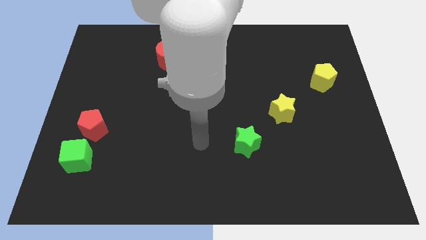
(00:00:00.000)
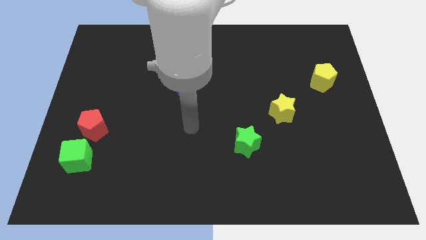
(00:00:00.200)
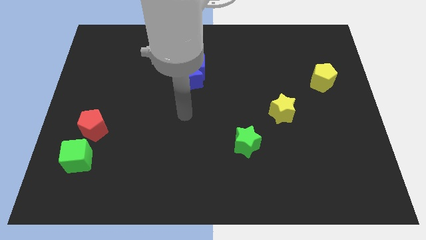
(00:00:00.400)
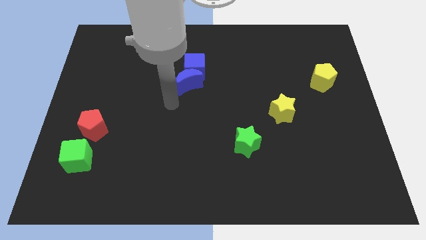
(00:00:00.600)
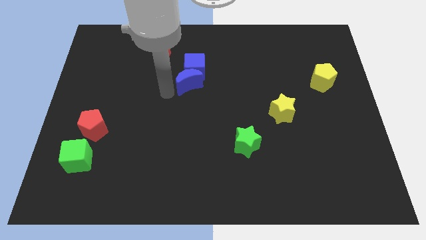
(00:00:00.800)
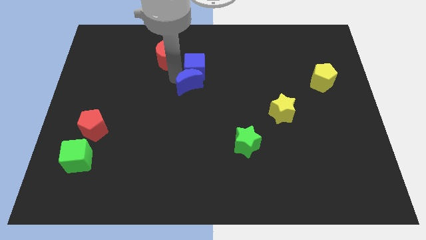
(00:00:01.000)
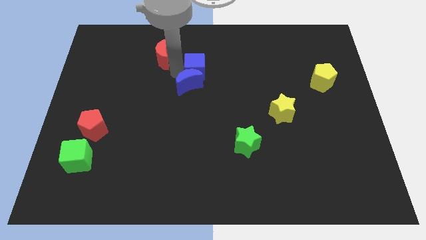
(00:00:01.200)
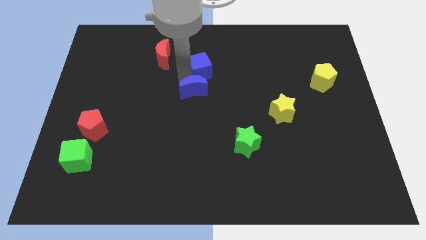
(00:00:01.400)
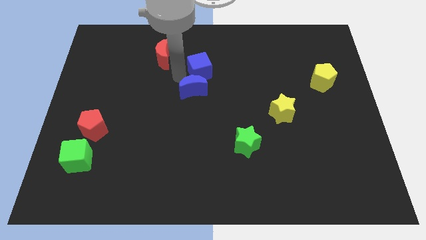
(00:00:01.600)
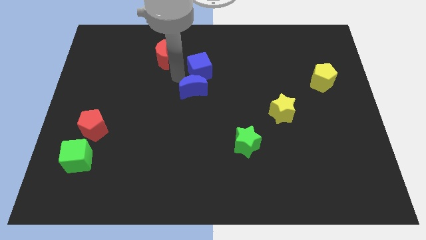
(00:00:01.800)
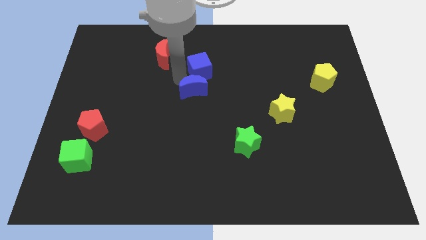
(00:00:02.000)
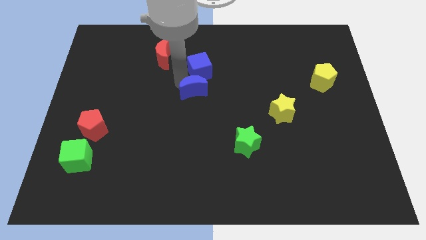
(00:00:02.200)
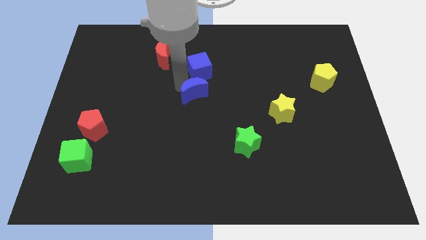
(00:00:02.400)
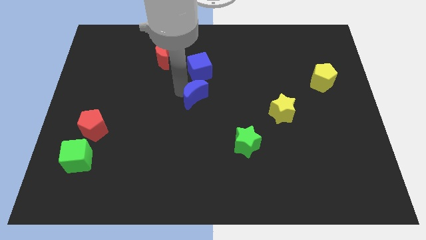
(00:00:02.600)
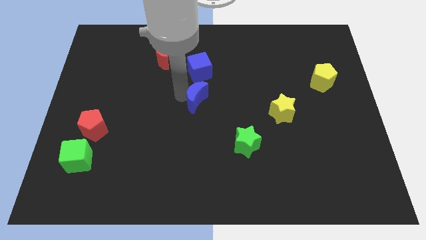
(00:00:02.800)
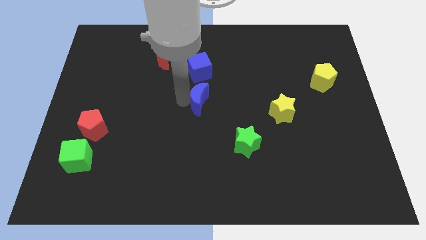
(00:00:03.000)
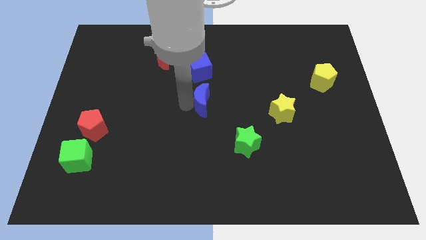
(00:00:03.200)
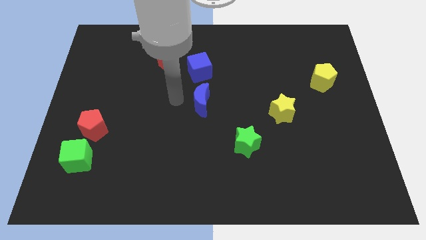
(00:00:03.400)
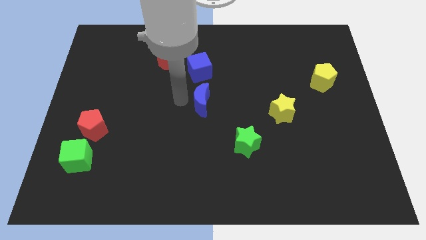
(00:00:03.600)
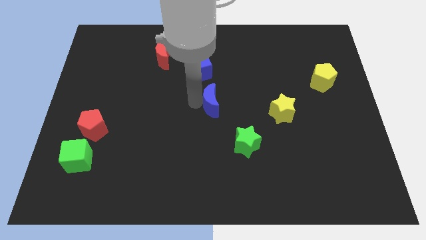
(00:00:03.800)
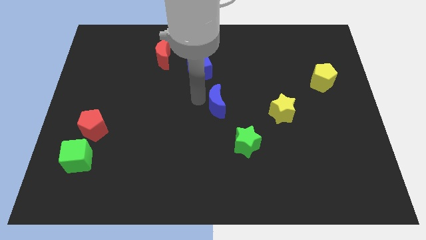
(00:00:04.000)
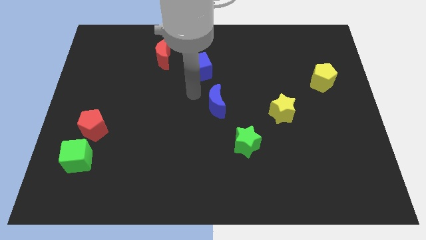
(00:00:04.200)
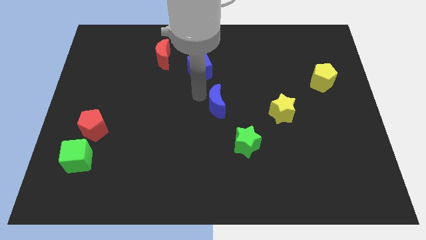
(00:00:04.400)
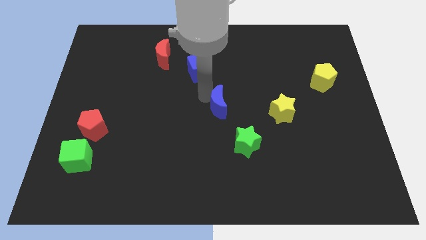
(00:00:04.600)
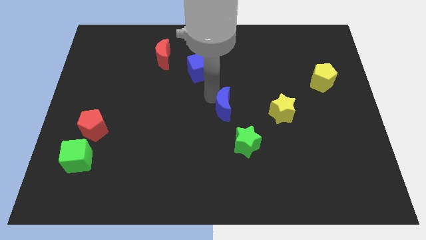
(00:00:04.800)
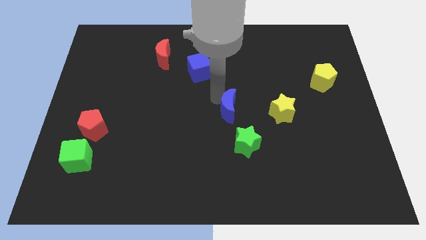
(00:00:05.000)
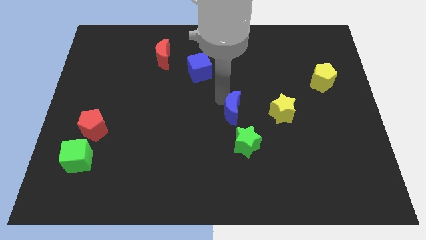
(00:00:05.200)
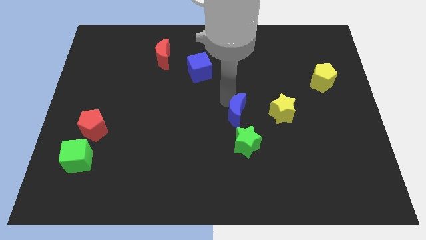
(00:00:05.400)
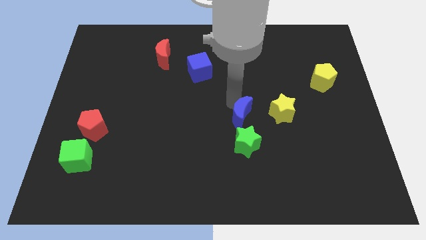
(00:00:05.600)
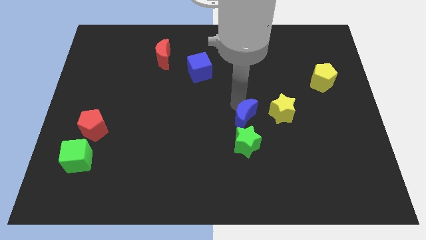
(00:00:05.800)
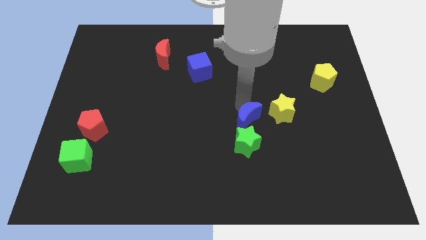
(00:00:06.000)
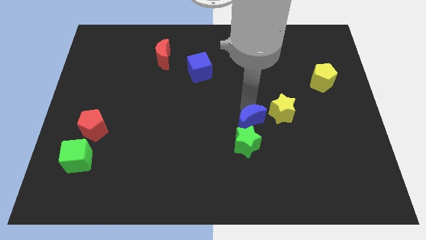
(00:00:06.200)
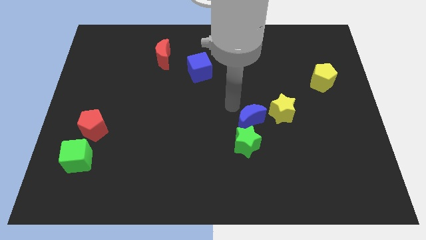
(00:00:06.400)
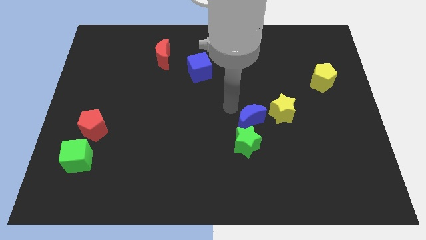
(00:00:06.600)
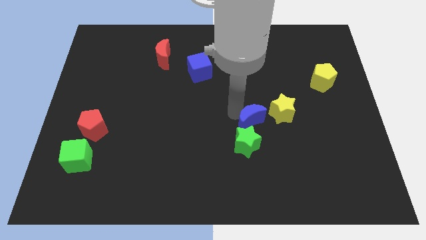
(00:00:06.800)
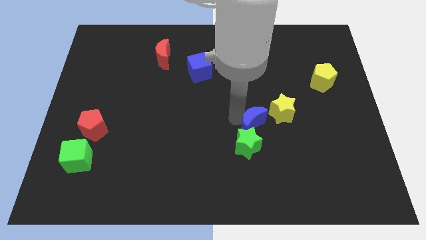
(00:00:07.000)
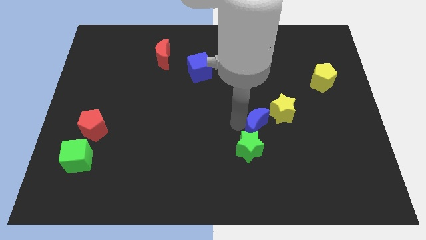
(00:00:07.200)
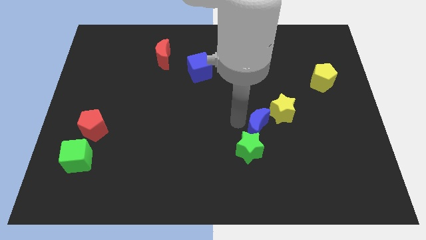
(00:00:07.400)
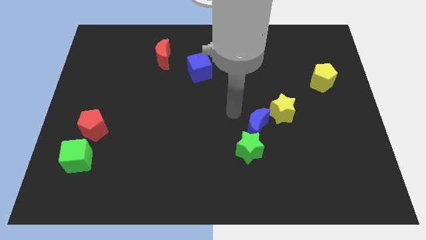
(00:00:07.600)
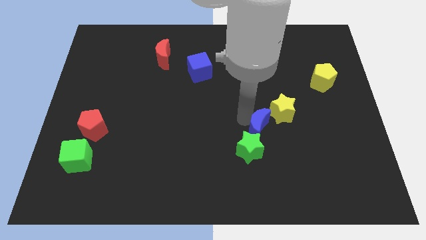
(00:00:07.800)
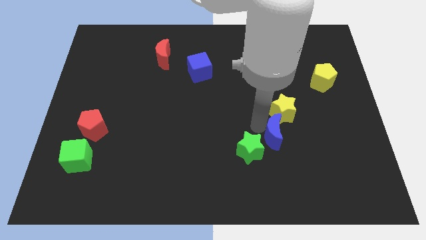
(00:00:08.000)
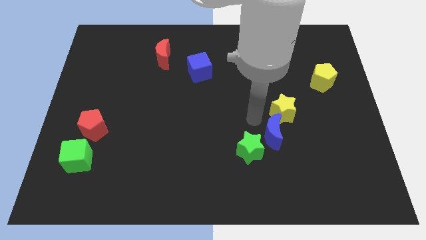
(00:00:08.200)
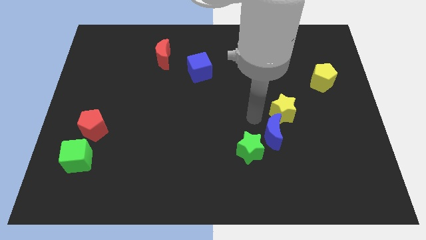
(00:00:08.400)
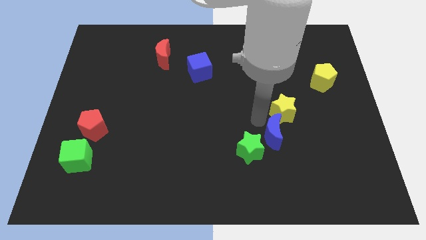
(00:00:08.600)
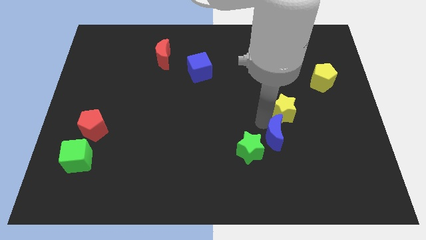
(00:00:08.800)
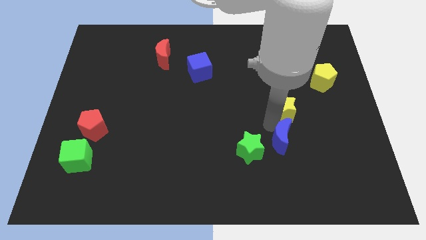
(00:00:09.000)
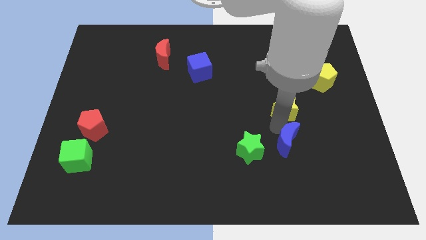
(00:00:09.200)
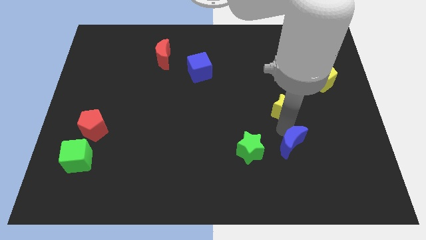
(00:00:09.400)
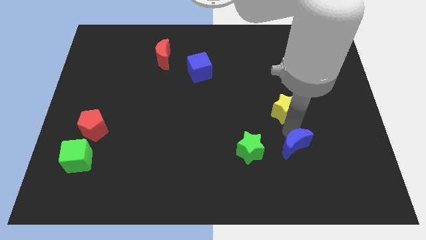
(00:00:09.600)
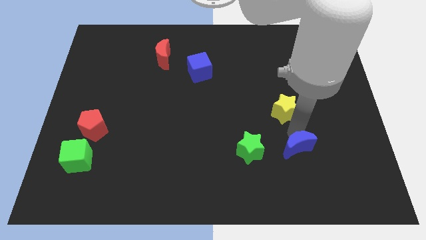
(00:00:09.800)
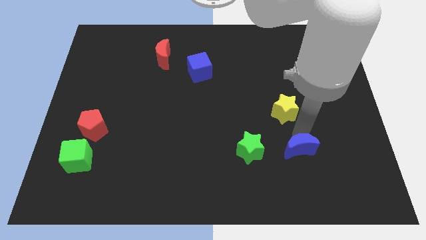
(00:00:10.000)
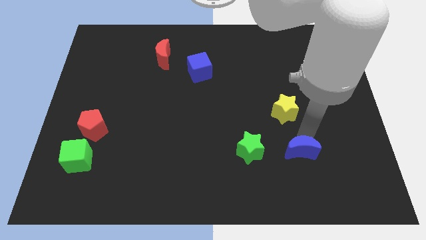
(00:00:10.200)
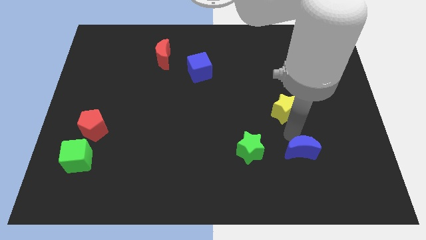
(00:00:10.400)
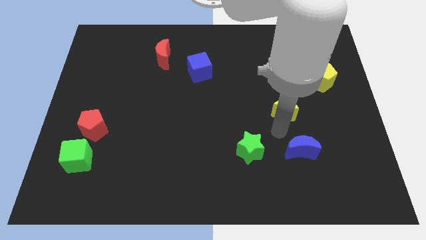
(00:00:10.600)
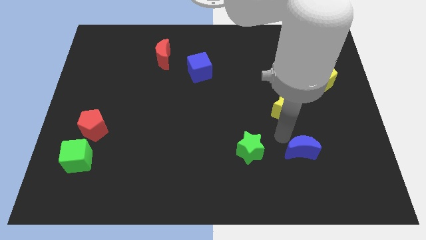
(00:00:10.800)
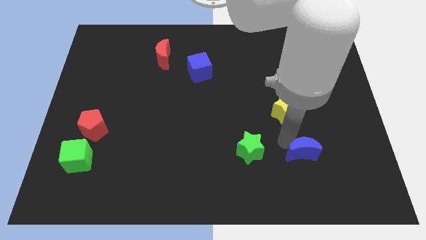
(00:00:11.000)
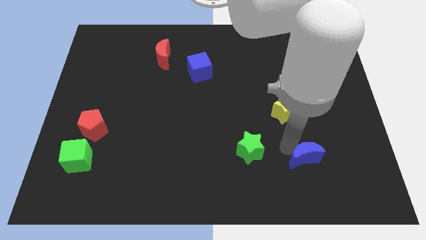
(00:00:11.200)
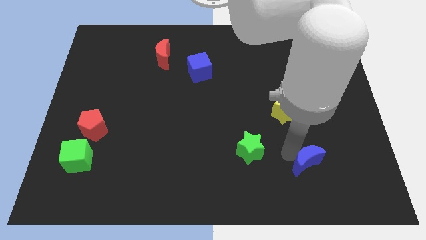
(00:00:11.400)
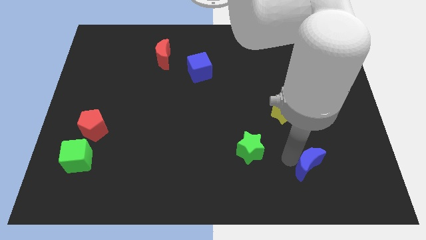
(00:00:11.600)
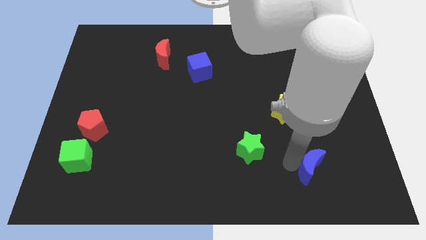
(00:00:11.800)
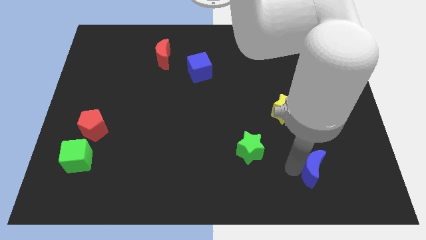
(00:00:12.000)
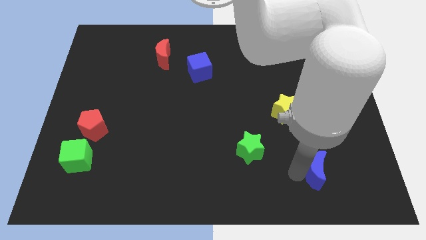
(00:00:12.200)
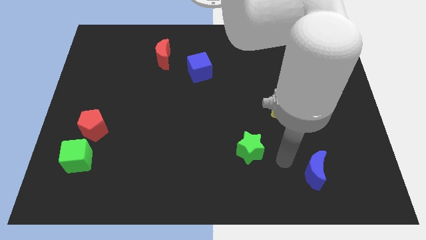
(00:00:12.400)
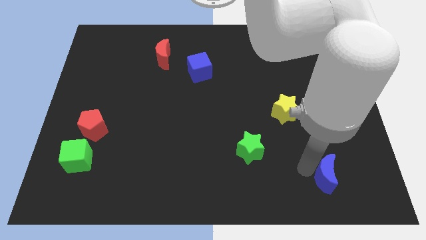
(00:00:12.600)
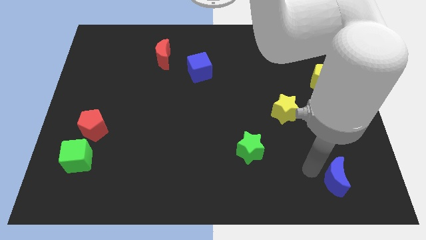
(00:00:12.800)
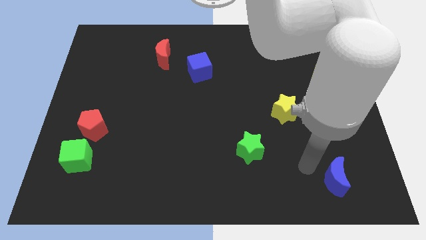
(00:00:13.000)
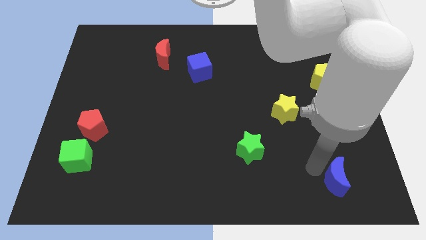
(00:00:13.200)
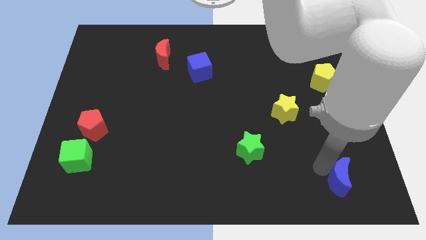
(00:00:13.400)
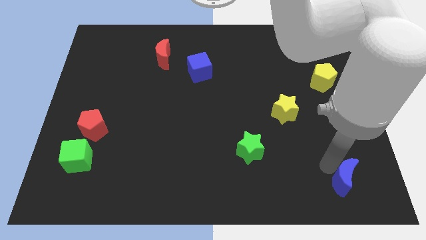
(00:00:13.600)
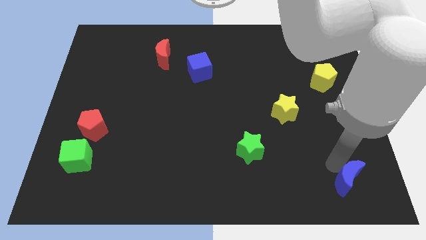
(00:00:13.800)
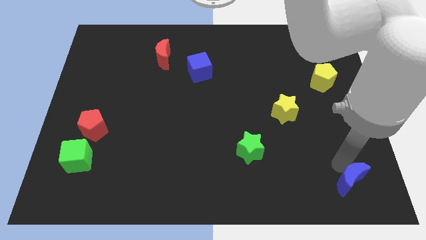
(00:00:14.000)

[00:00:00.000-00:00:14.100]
slide the blue moon to the bottom right
